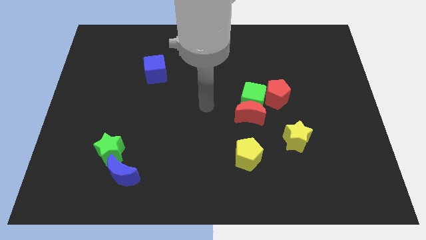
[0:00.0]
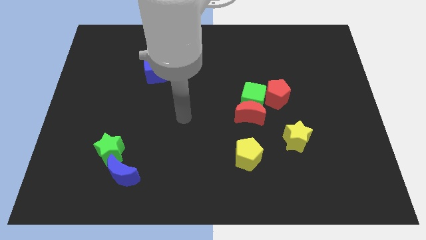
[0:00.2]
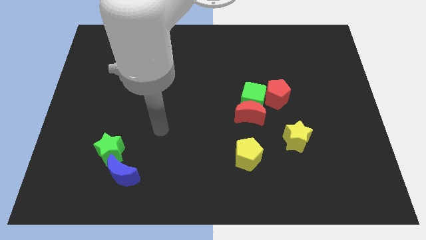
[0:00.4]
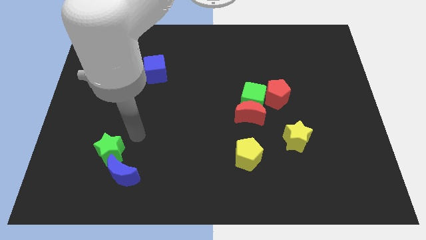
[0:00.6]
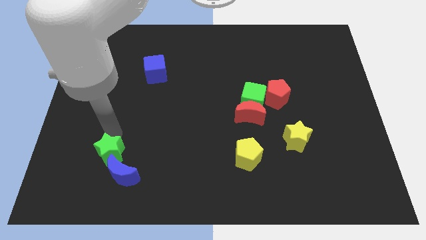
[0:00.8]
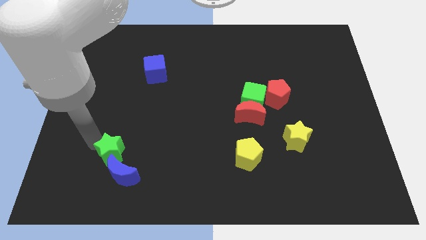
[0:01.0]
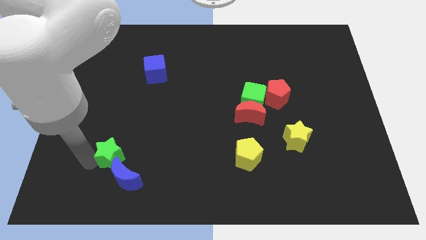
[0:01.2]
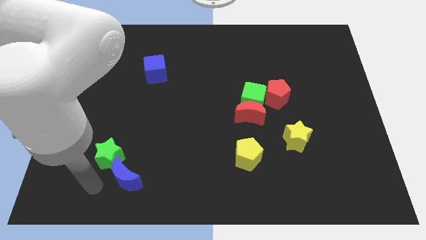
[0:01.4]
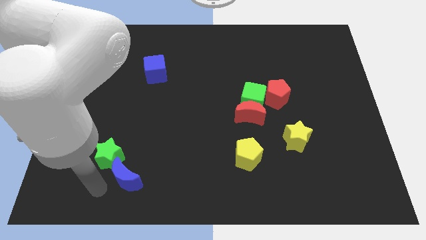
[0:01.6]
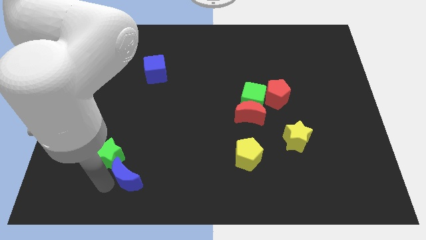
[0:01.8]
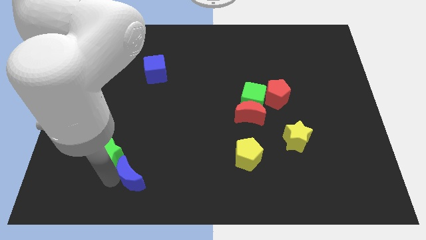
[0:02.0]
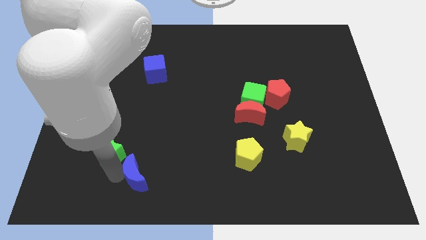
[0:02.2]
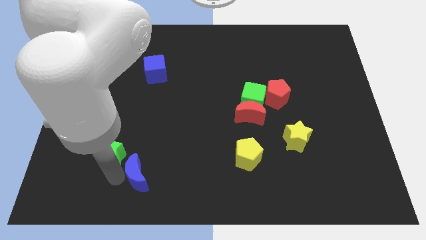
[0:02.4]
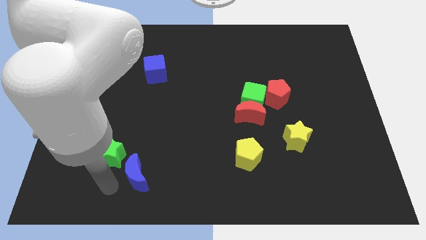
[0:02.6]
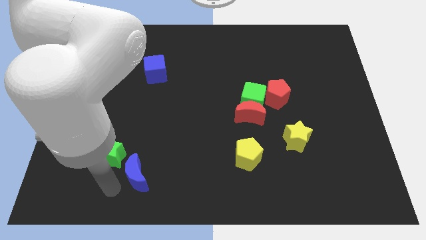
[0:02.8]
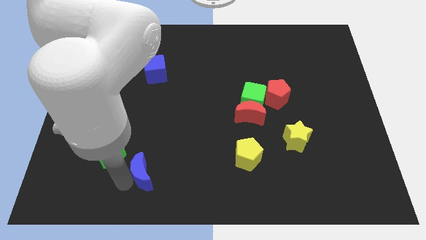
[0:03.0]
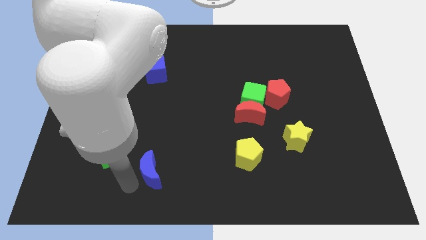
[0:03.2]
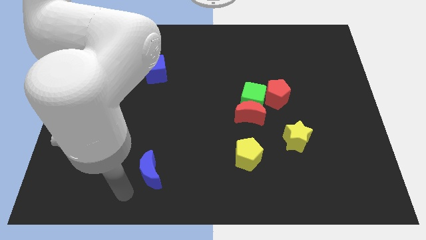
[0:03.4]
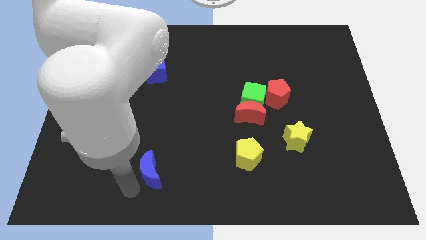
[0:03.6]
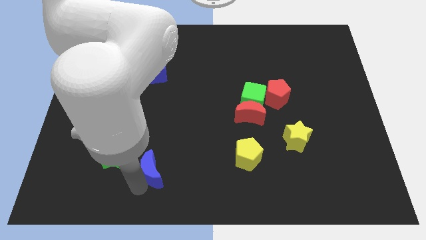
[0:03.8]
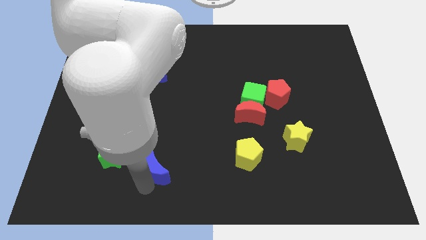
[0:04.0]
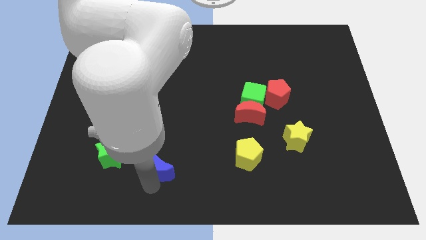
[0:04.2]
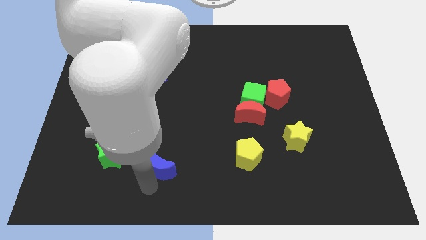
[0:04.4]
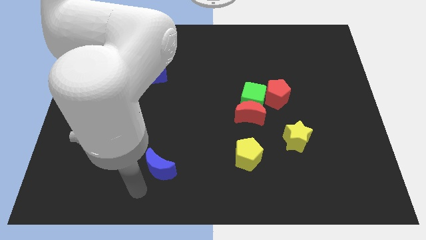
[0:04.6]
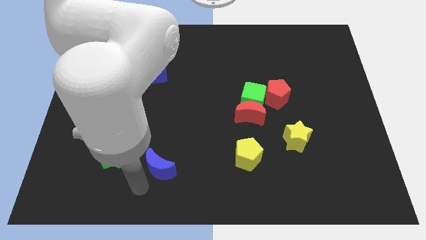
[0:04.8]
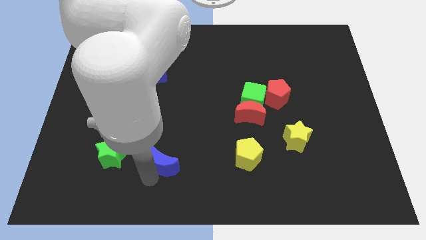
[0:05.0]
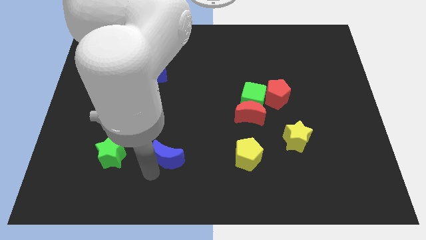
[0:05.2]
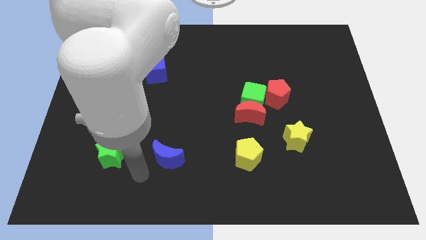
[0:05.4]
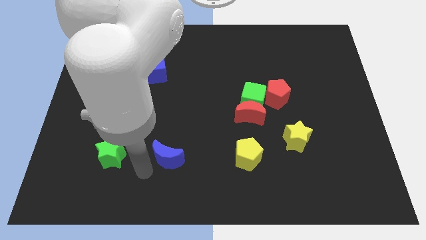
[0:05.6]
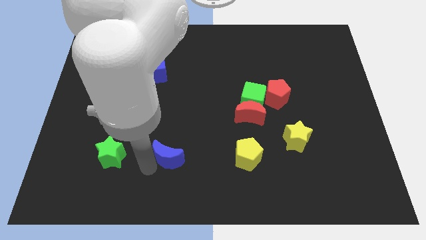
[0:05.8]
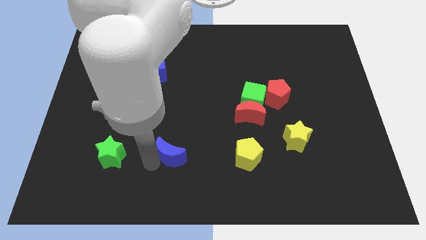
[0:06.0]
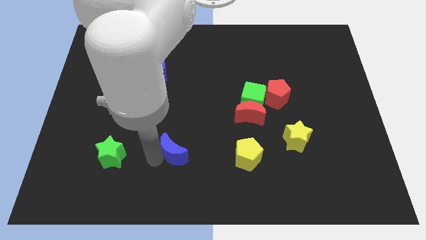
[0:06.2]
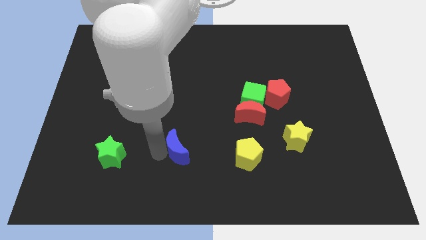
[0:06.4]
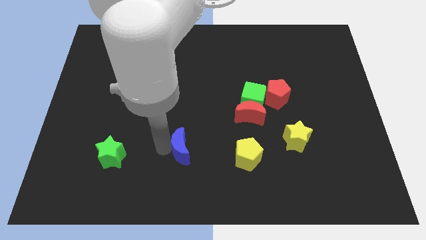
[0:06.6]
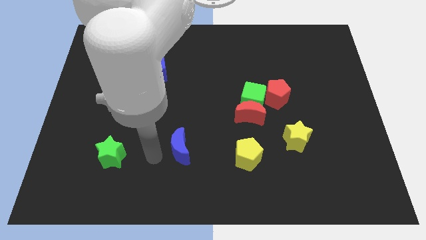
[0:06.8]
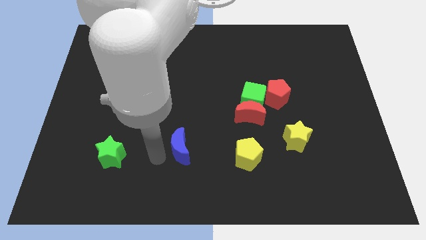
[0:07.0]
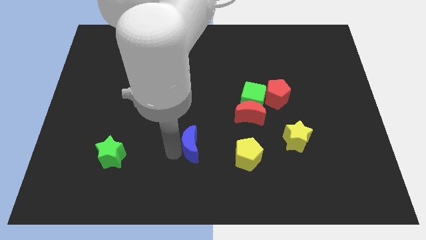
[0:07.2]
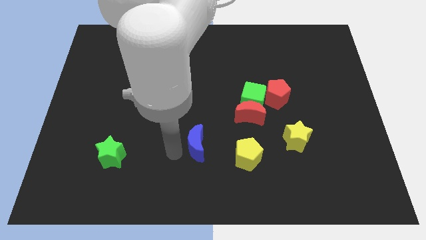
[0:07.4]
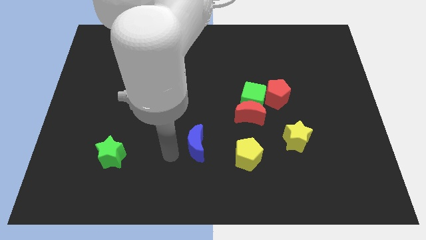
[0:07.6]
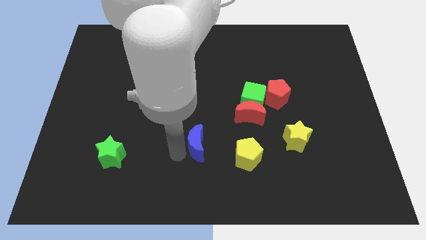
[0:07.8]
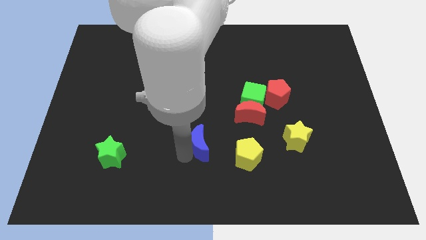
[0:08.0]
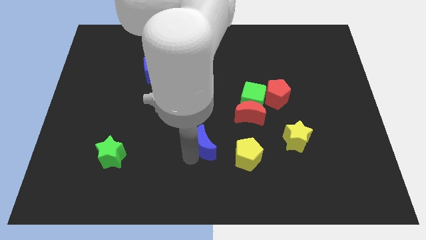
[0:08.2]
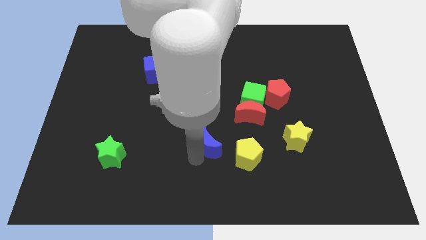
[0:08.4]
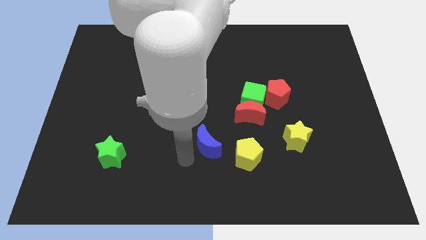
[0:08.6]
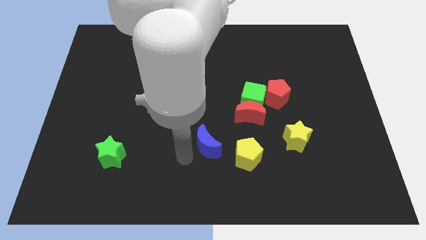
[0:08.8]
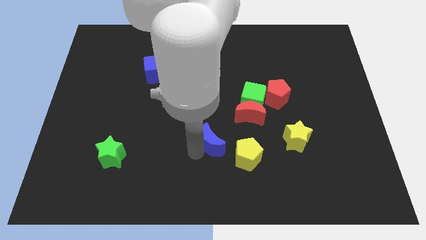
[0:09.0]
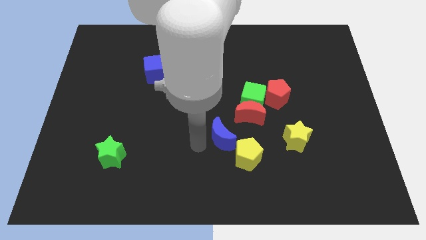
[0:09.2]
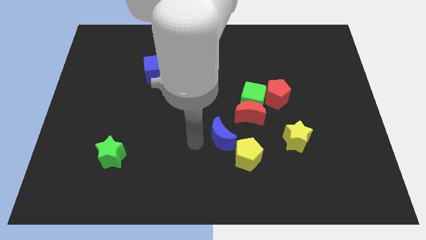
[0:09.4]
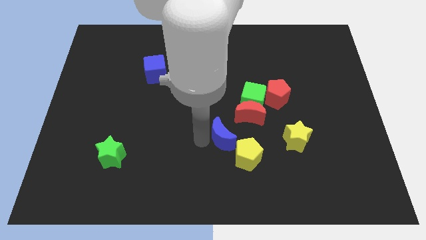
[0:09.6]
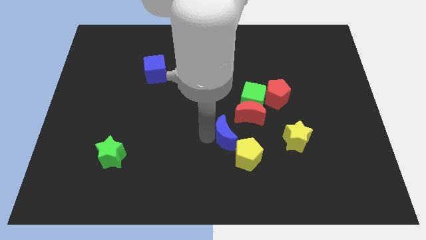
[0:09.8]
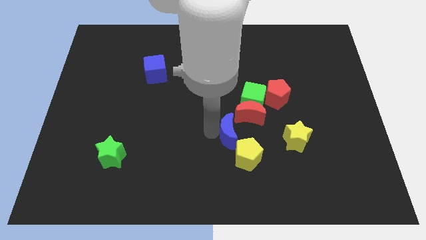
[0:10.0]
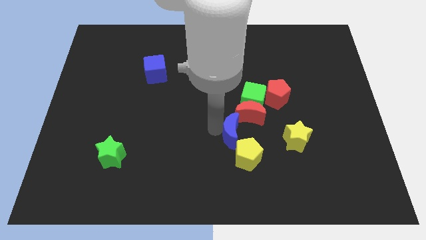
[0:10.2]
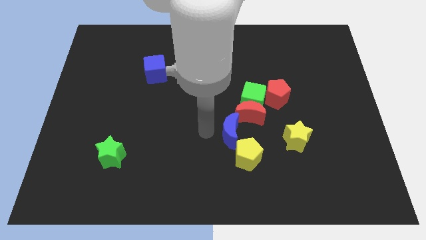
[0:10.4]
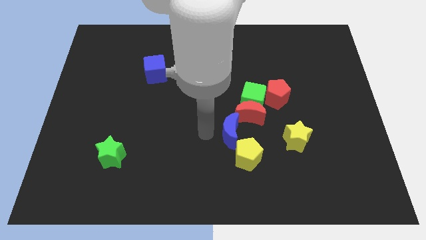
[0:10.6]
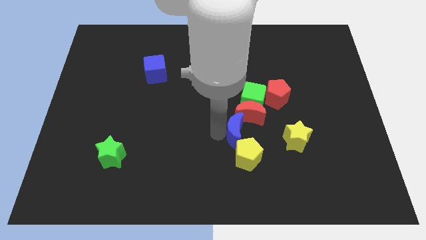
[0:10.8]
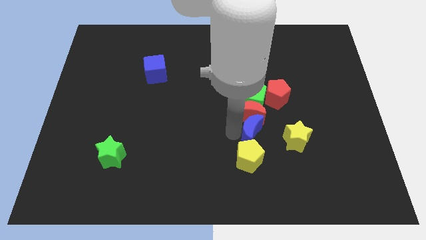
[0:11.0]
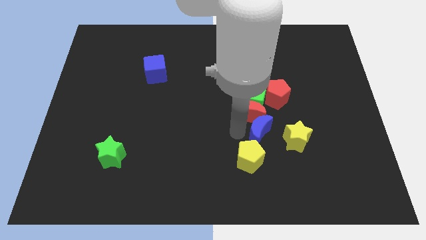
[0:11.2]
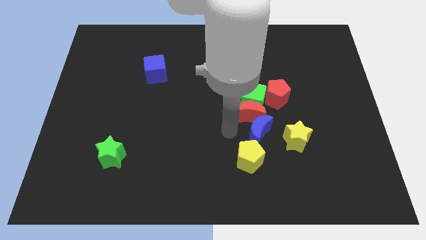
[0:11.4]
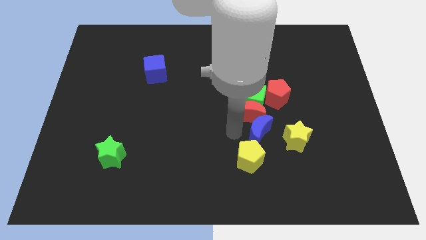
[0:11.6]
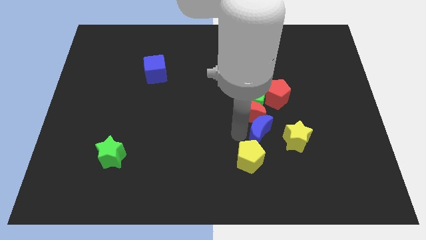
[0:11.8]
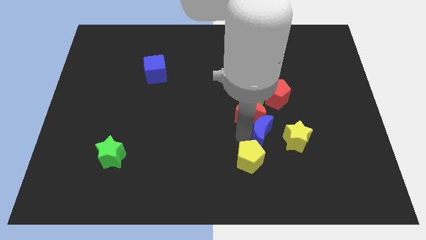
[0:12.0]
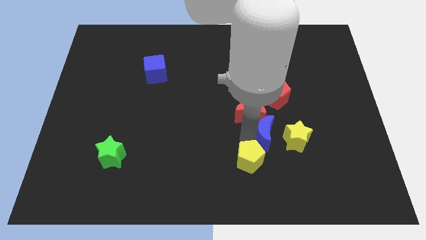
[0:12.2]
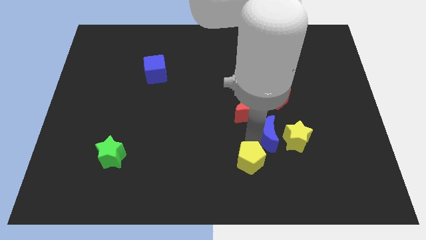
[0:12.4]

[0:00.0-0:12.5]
put the blue moon towards the yellow star

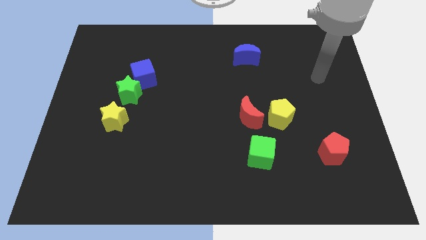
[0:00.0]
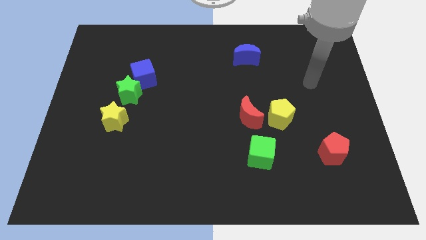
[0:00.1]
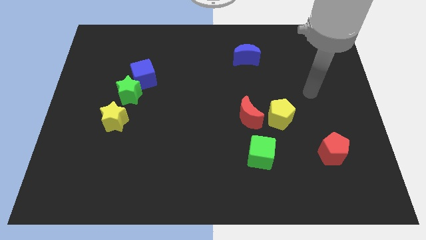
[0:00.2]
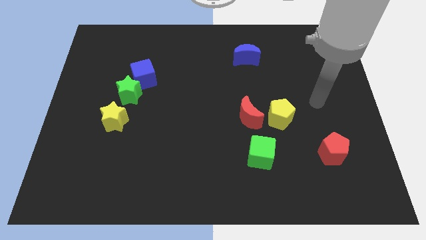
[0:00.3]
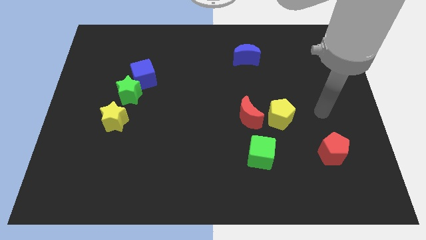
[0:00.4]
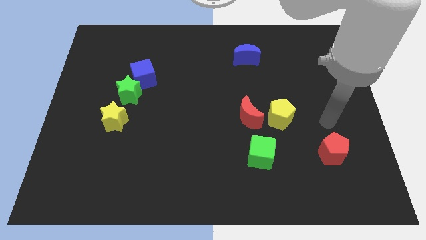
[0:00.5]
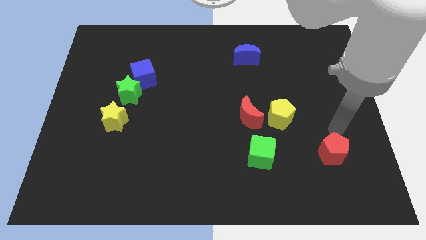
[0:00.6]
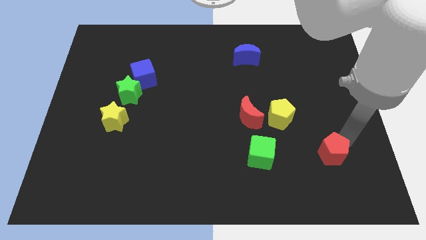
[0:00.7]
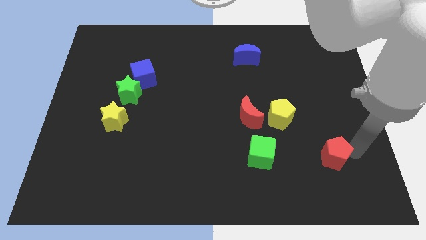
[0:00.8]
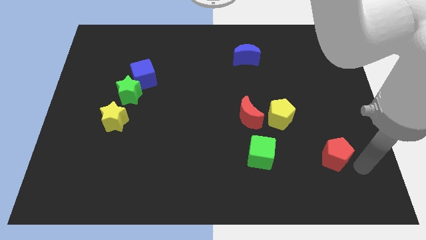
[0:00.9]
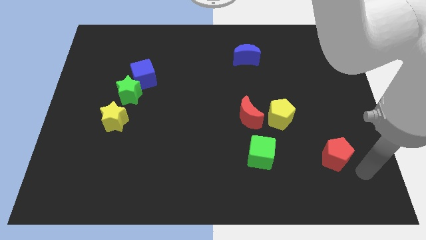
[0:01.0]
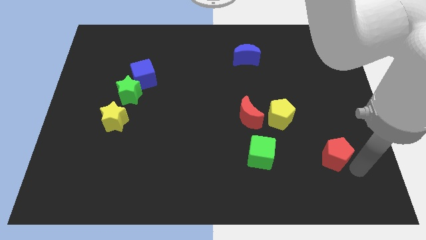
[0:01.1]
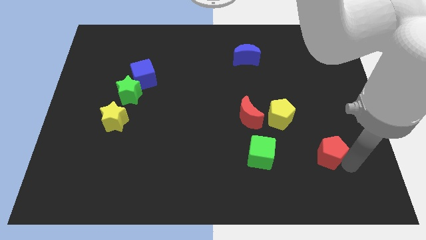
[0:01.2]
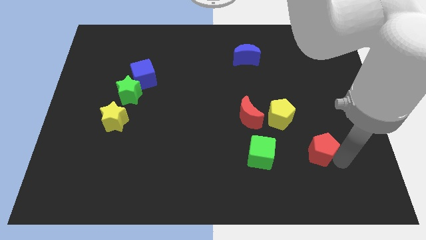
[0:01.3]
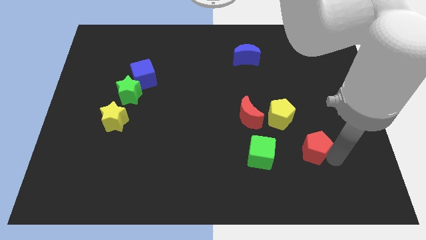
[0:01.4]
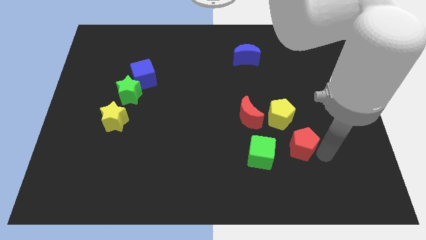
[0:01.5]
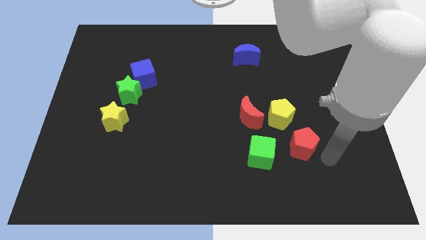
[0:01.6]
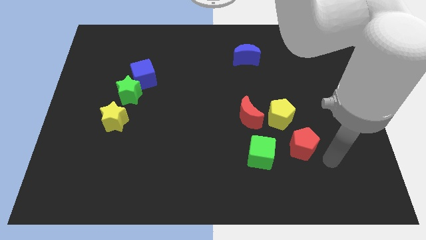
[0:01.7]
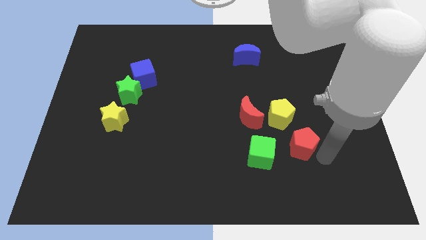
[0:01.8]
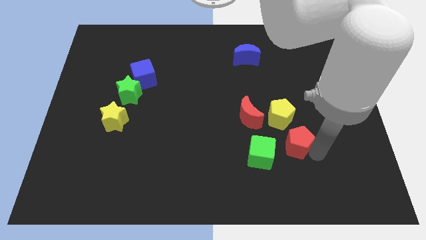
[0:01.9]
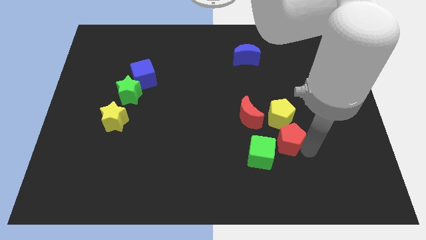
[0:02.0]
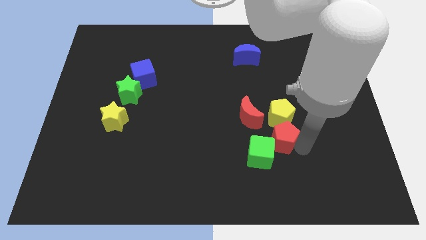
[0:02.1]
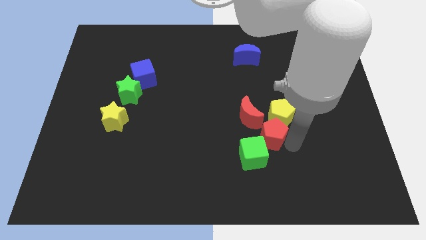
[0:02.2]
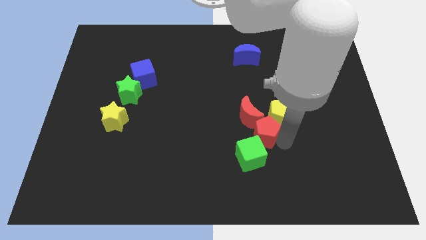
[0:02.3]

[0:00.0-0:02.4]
push the red pentagon towards the red moon
